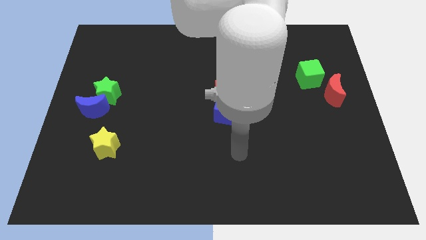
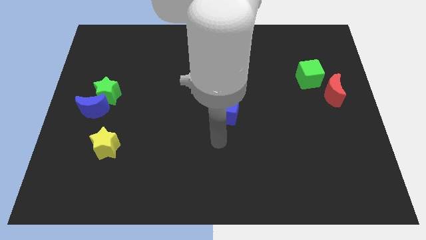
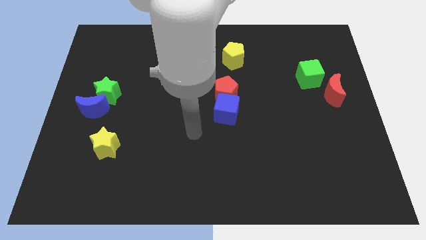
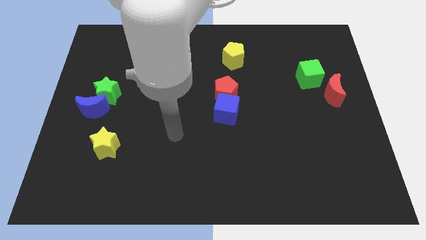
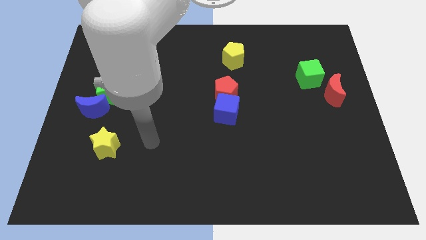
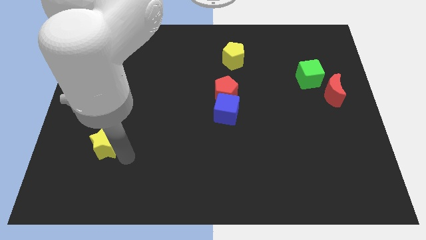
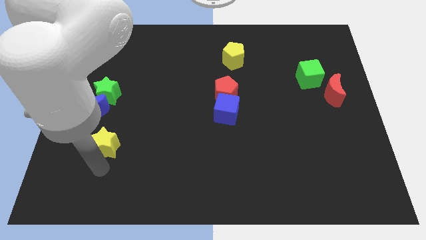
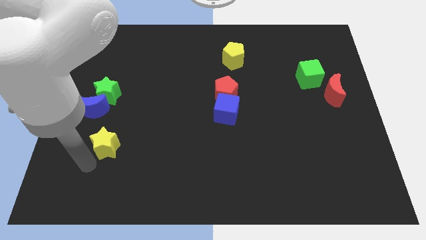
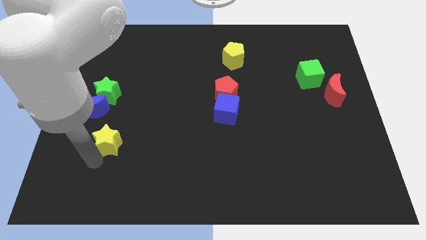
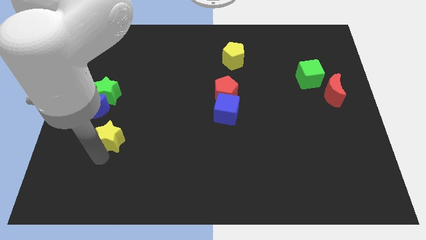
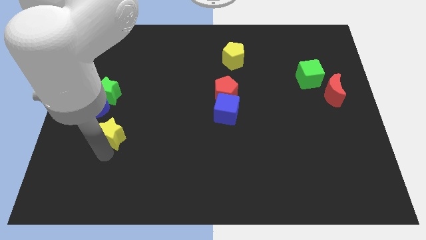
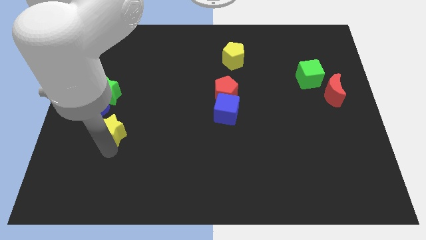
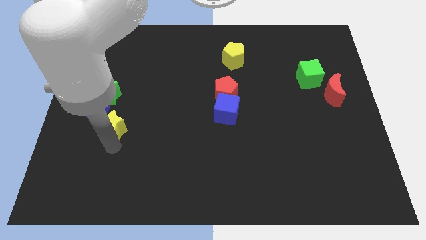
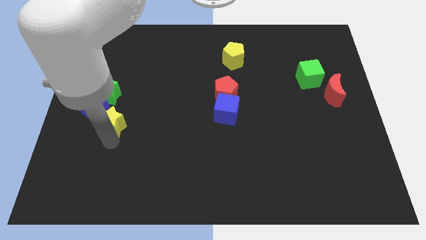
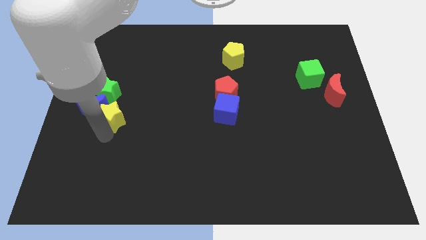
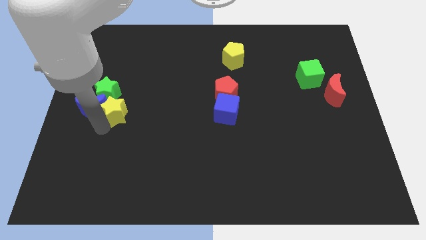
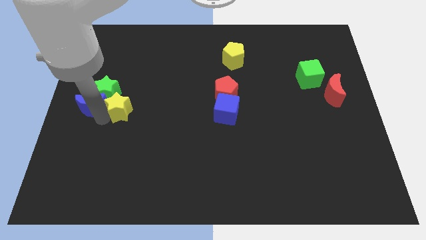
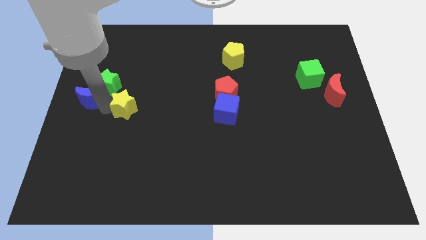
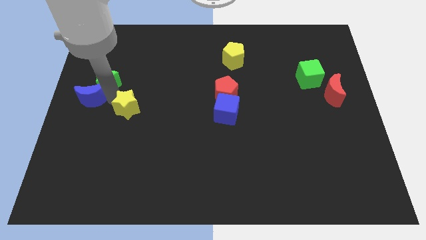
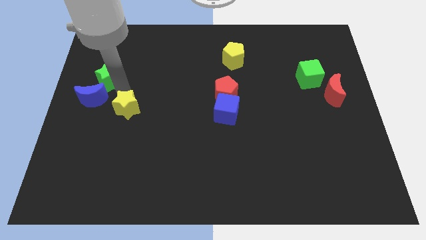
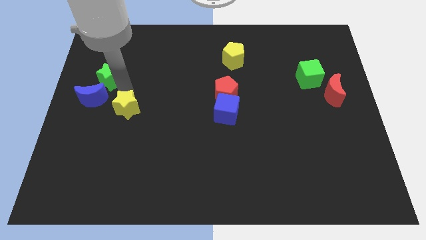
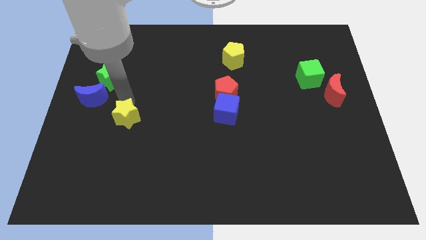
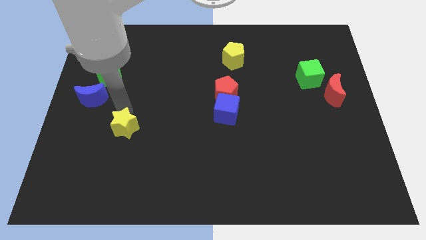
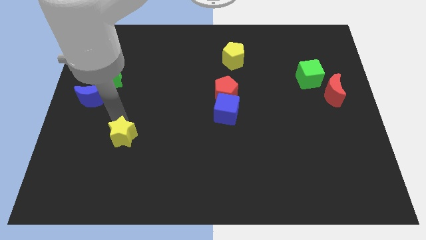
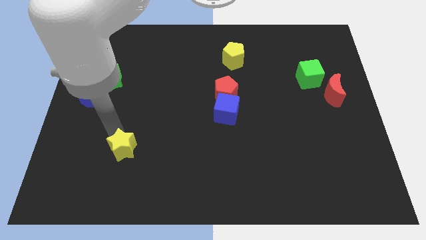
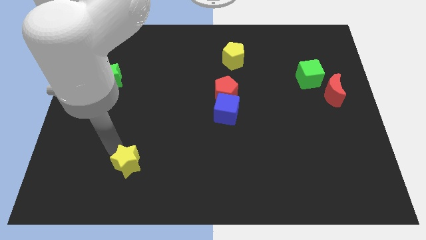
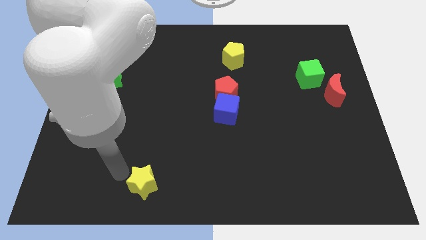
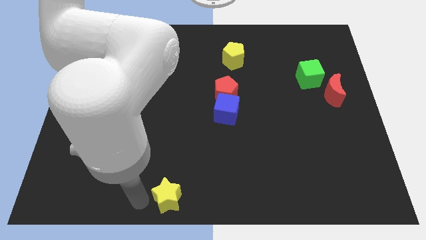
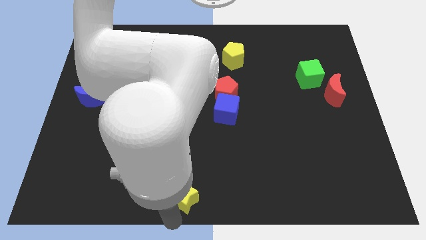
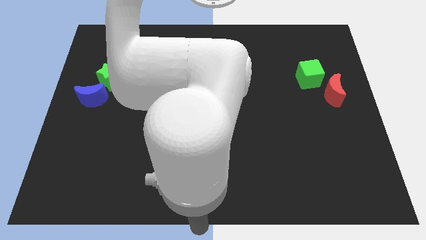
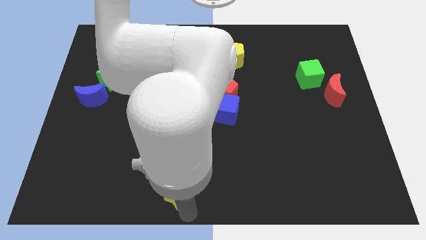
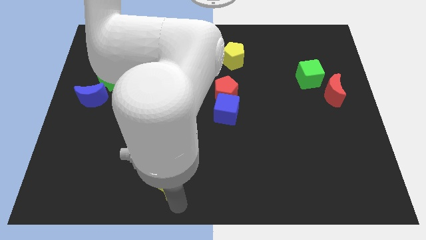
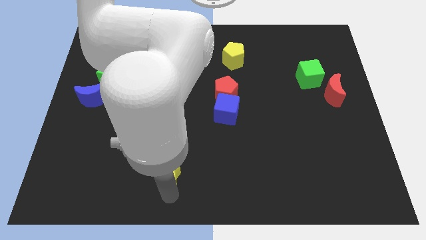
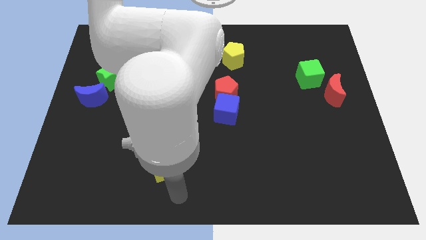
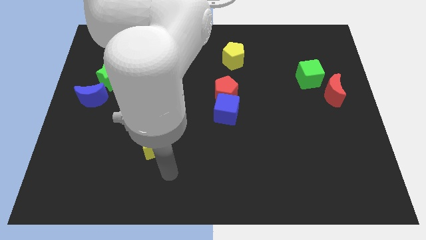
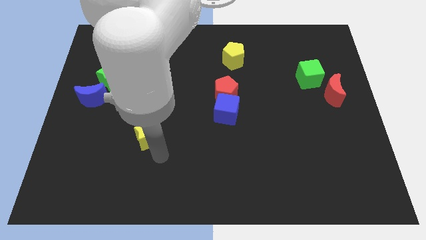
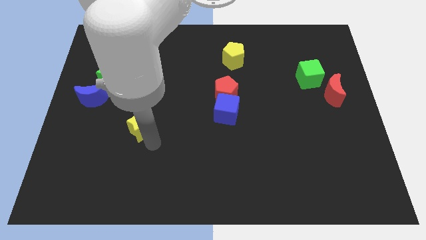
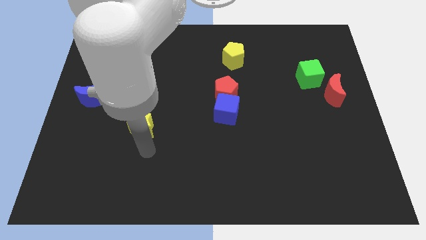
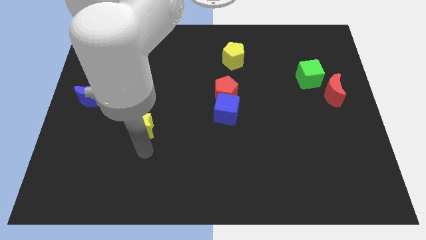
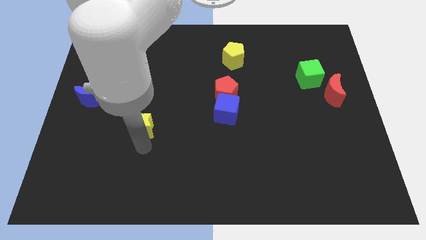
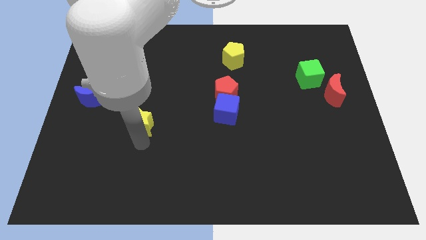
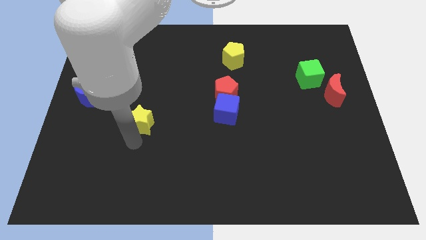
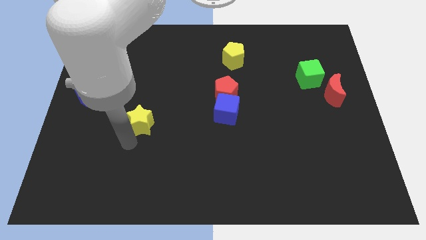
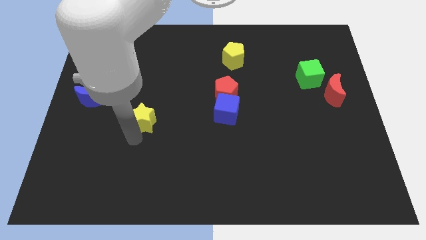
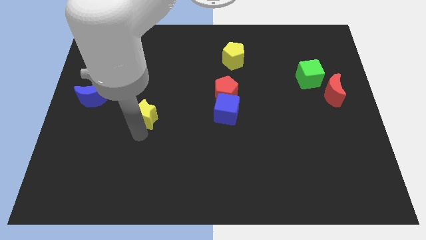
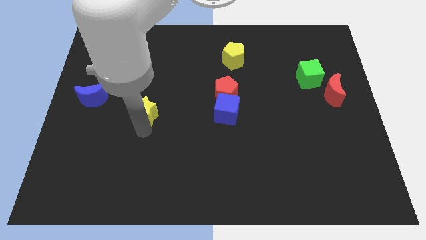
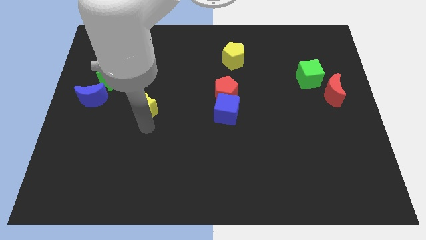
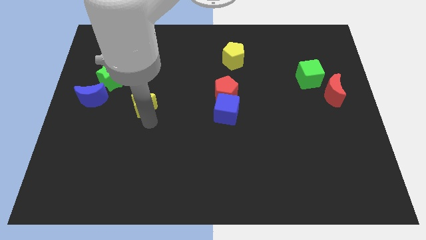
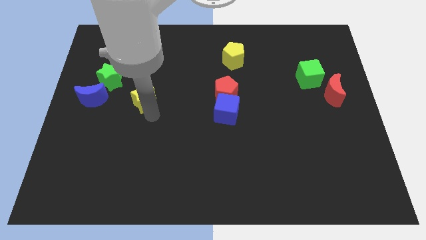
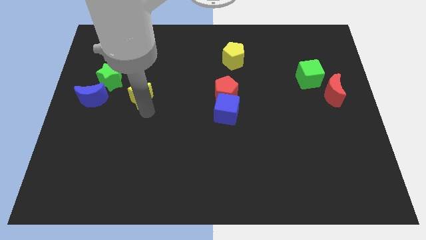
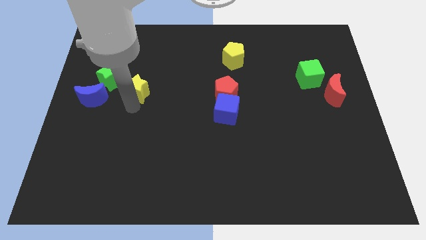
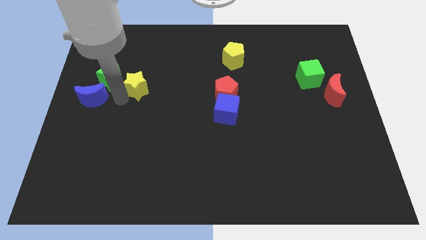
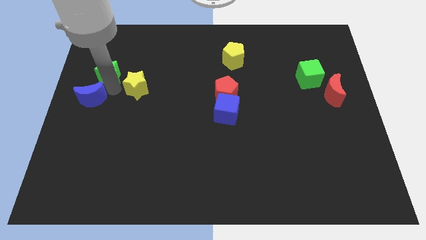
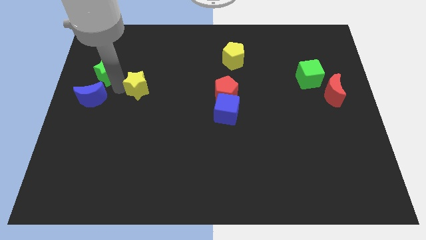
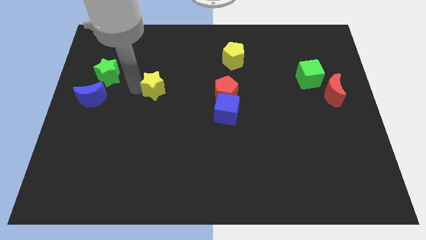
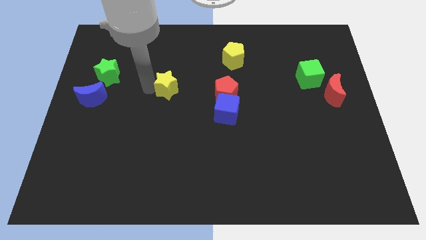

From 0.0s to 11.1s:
slide the yellow star diagonally up and to the right

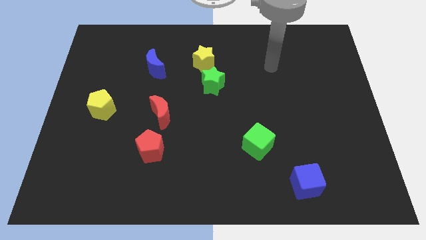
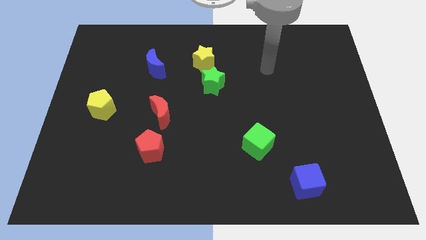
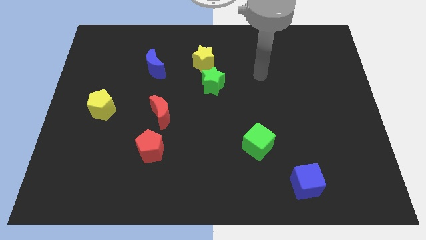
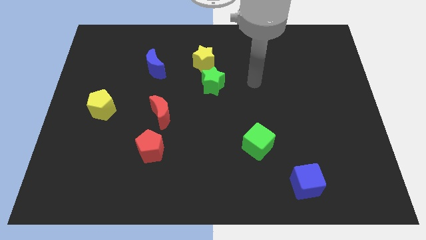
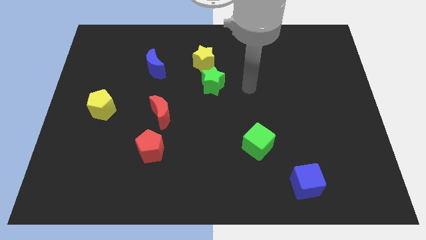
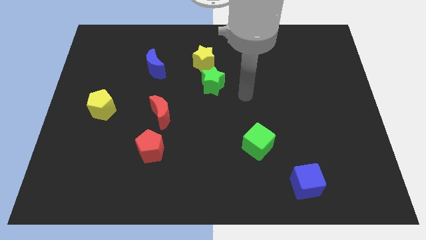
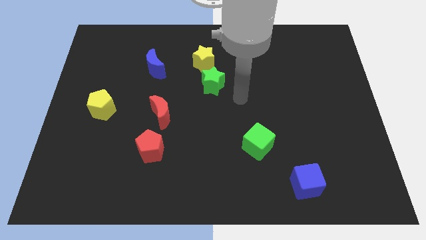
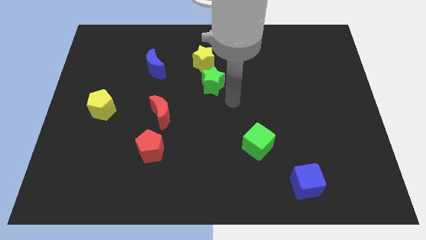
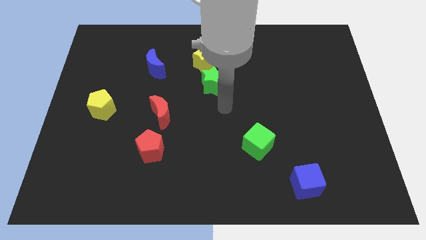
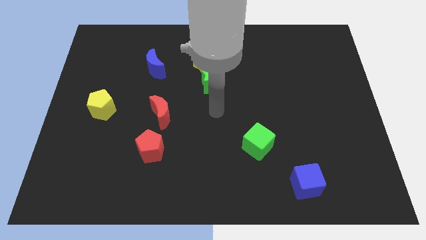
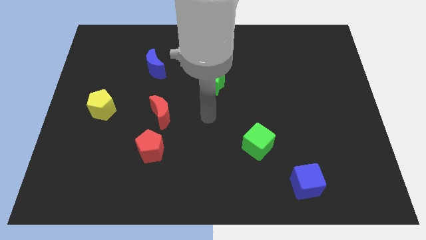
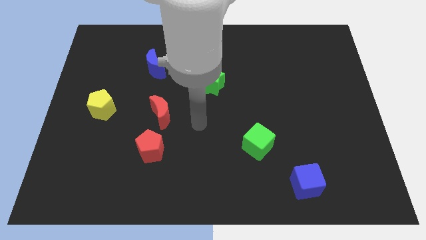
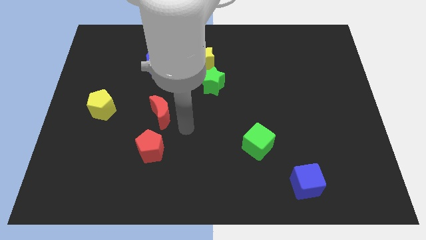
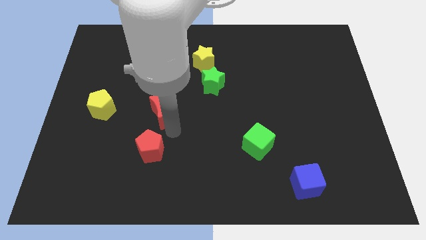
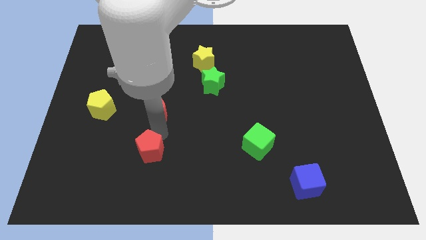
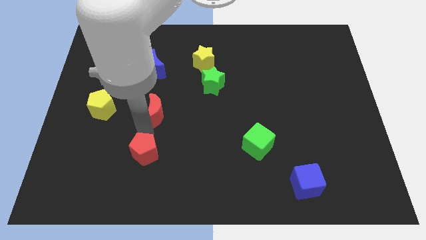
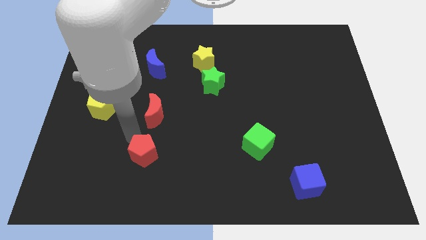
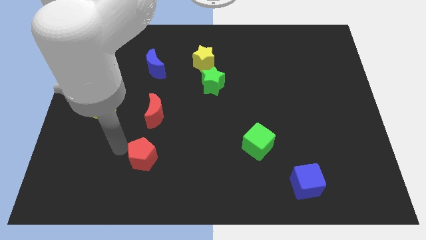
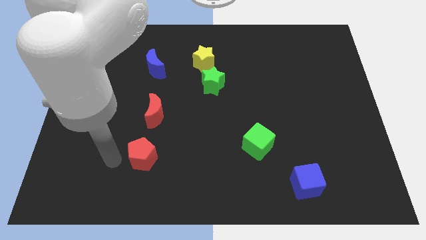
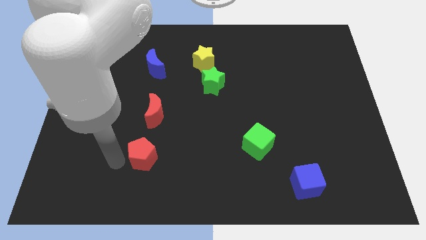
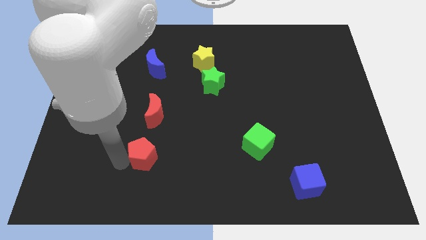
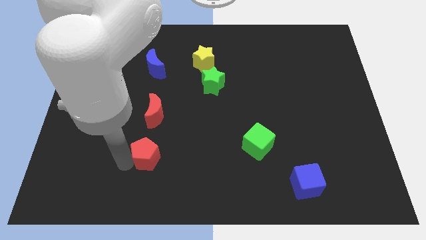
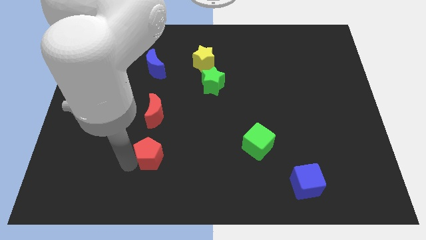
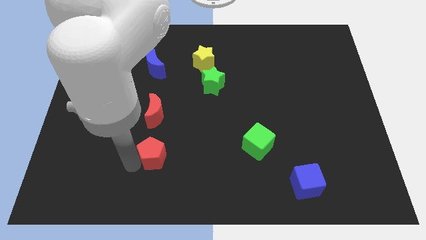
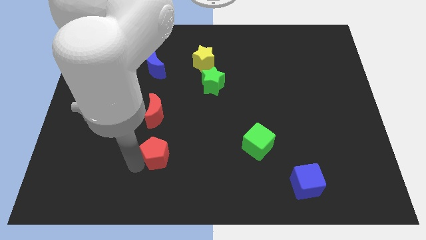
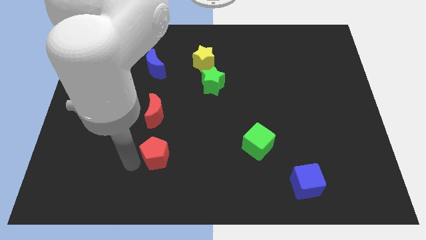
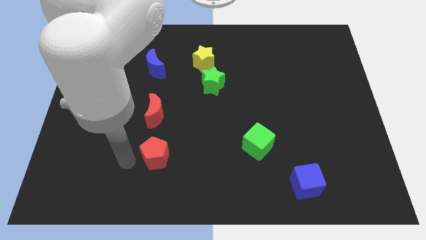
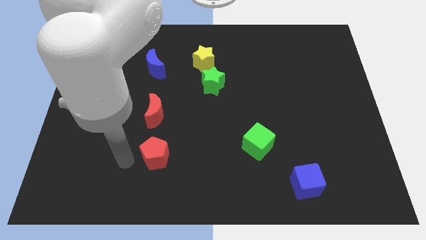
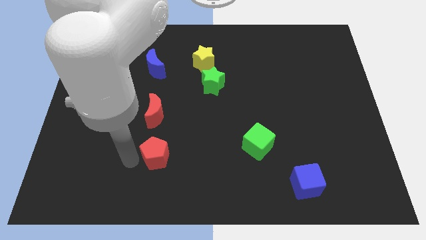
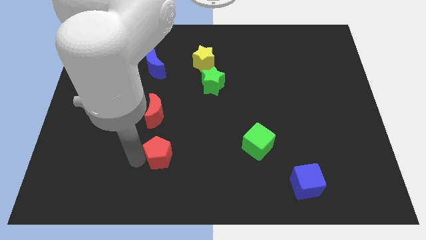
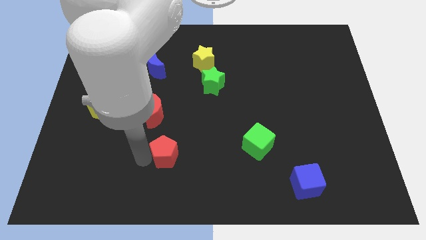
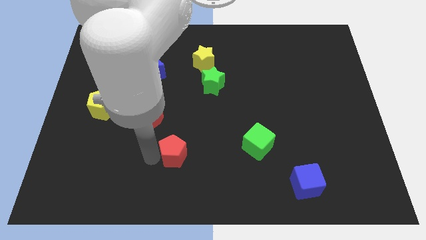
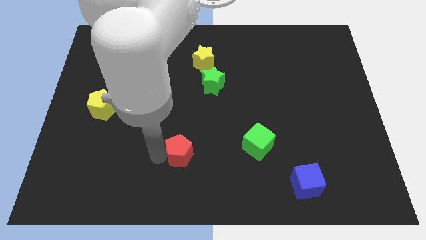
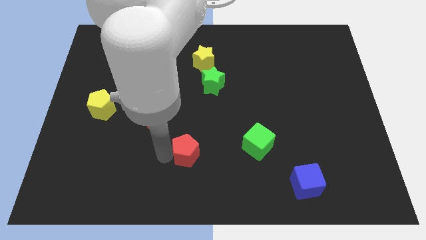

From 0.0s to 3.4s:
slide the red pentagon to the right a little
